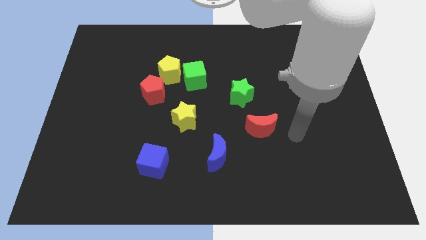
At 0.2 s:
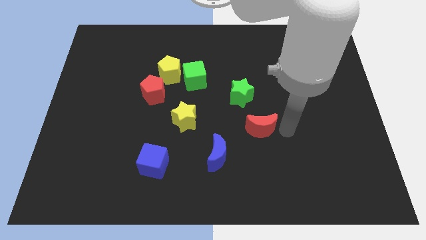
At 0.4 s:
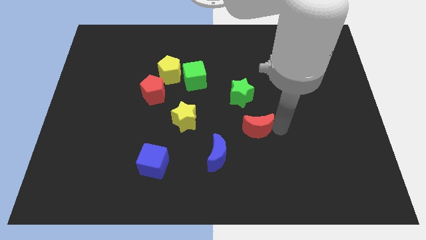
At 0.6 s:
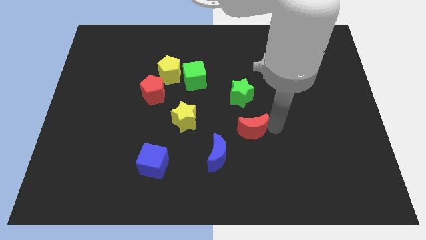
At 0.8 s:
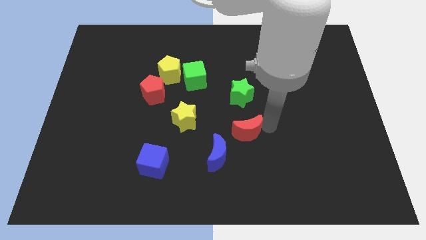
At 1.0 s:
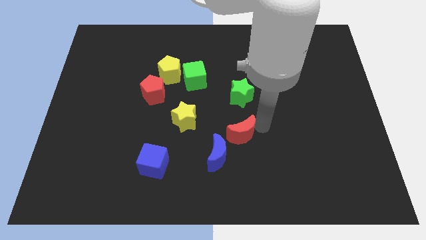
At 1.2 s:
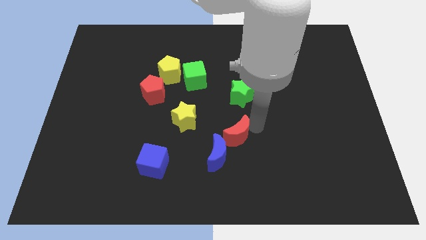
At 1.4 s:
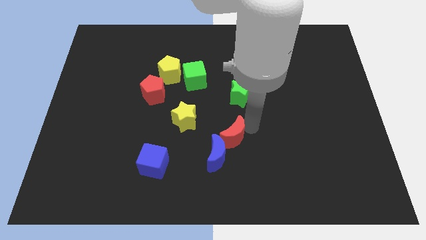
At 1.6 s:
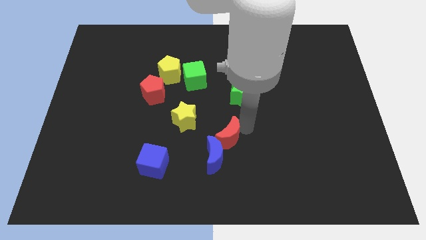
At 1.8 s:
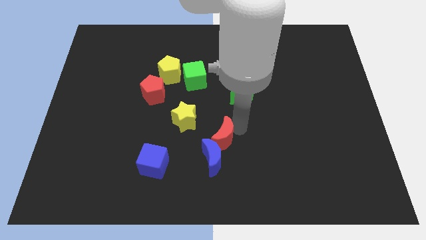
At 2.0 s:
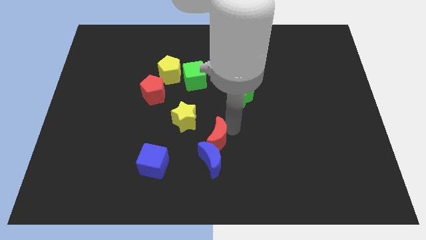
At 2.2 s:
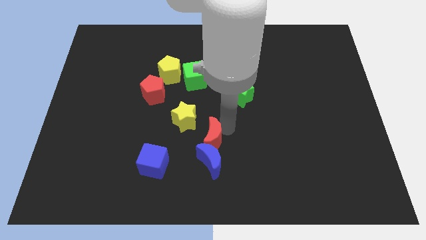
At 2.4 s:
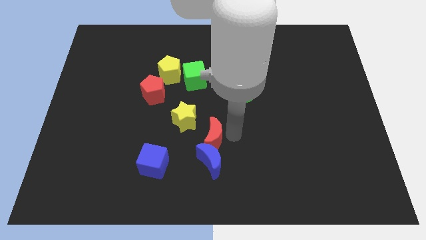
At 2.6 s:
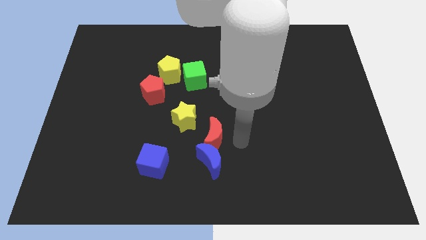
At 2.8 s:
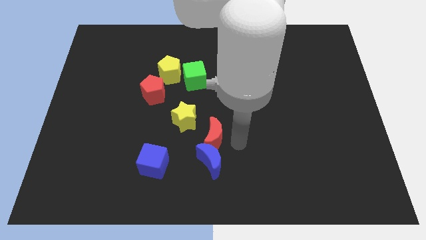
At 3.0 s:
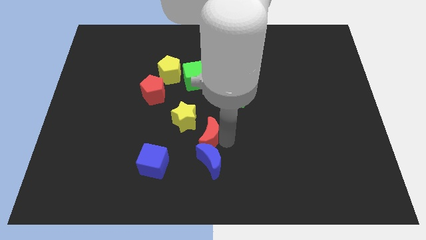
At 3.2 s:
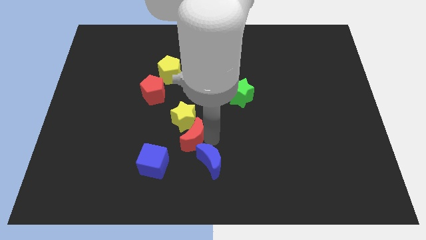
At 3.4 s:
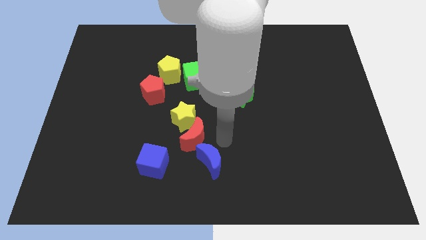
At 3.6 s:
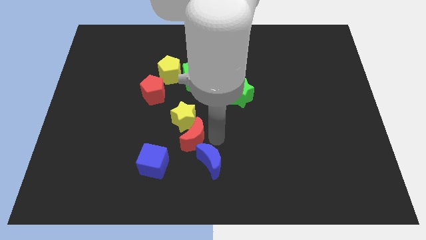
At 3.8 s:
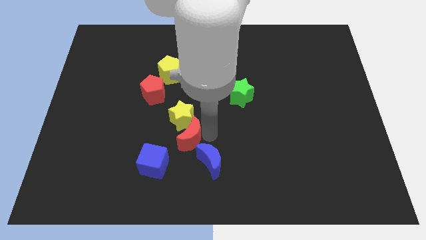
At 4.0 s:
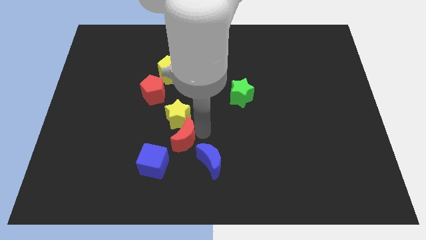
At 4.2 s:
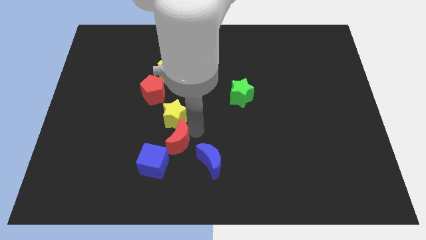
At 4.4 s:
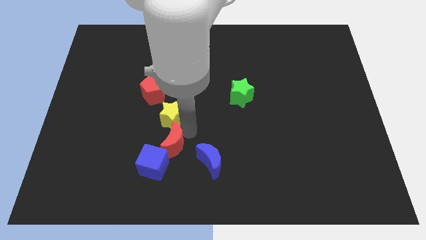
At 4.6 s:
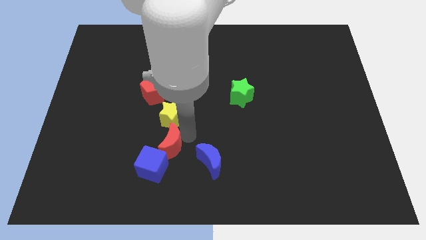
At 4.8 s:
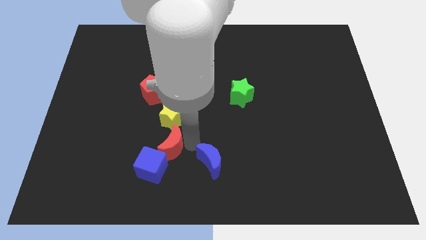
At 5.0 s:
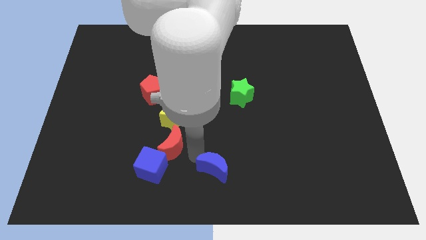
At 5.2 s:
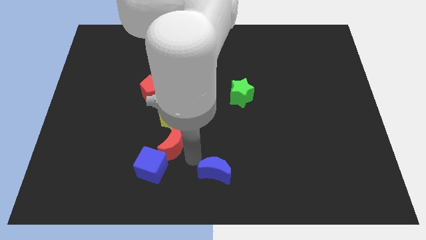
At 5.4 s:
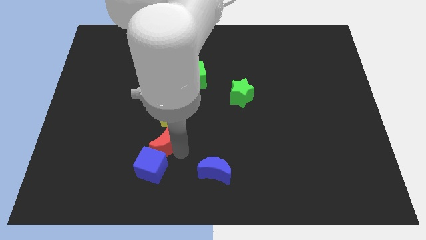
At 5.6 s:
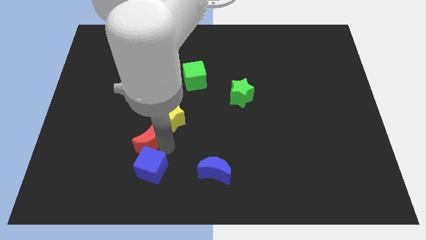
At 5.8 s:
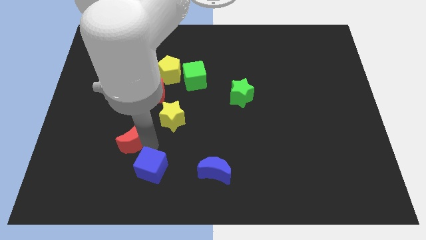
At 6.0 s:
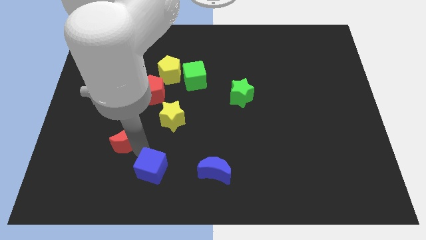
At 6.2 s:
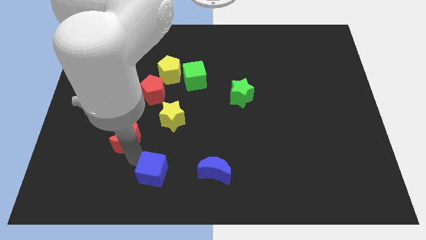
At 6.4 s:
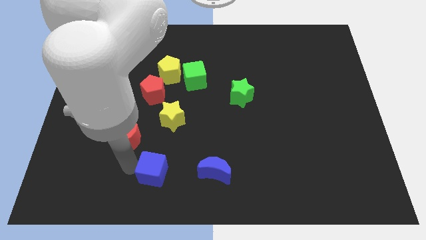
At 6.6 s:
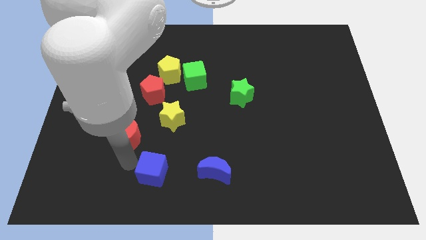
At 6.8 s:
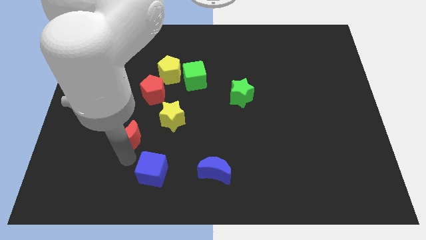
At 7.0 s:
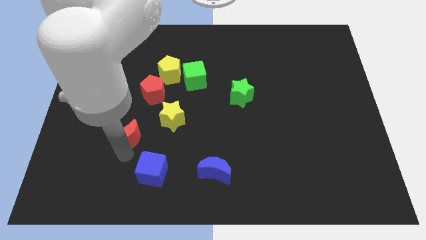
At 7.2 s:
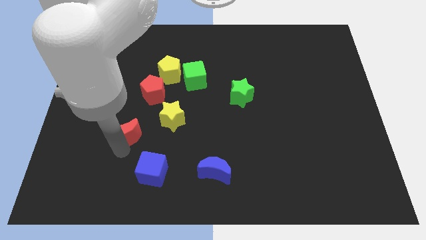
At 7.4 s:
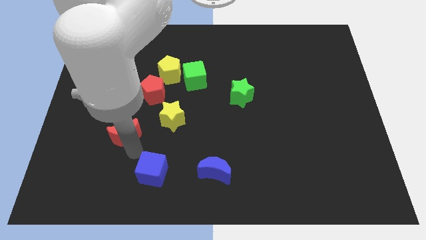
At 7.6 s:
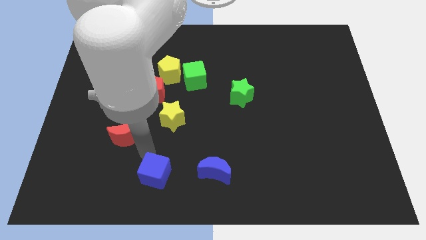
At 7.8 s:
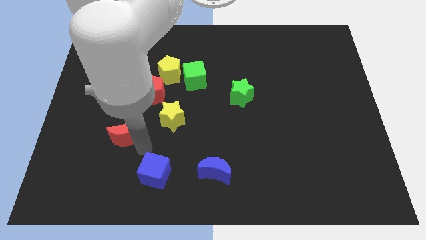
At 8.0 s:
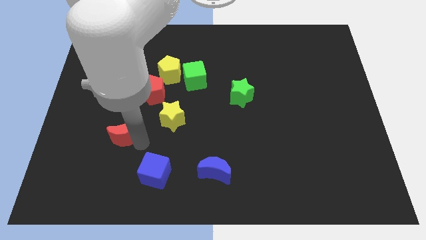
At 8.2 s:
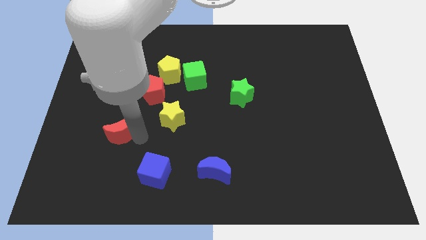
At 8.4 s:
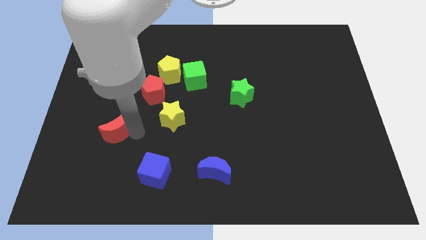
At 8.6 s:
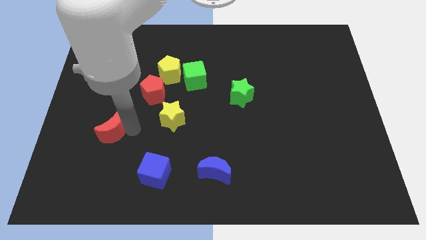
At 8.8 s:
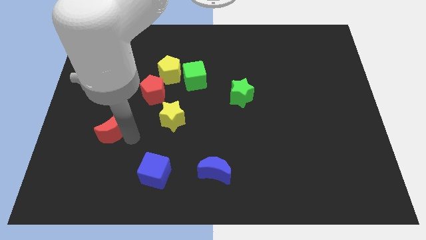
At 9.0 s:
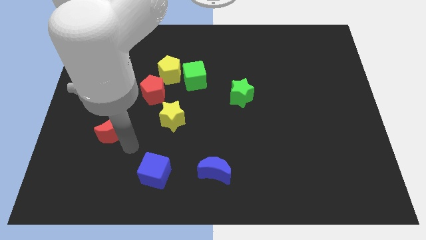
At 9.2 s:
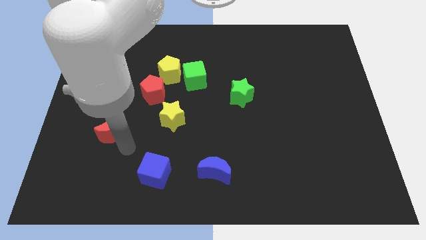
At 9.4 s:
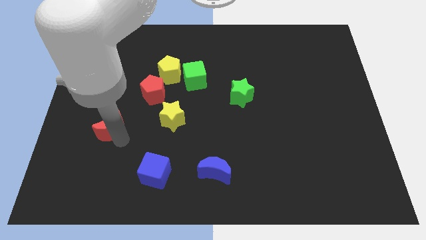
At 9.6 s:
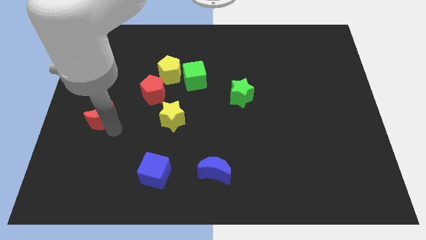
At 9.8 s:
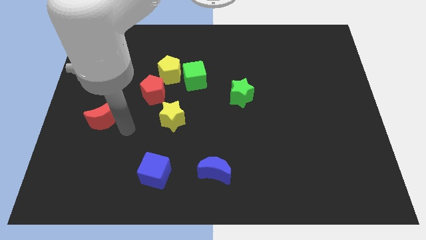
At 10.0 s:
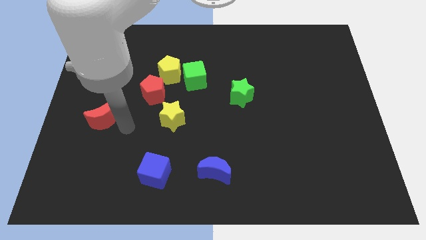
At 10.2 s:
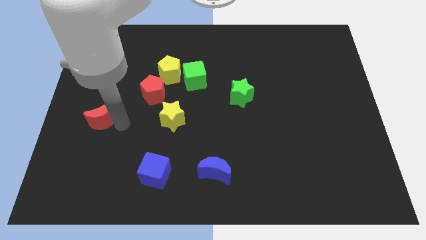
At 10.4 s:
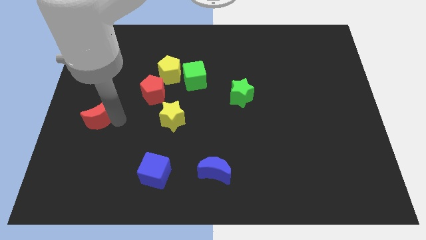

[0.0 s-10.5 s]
move the red moon to the left side

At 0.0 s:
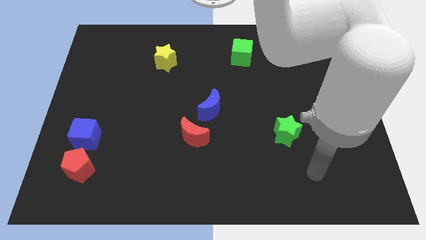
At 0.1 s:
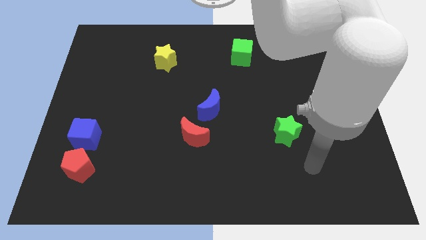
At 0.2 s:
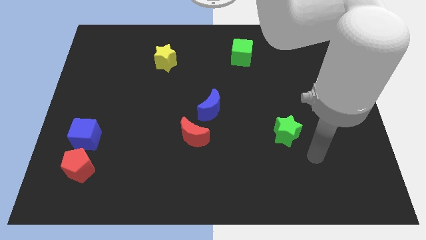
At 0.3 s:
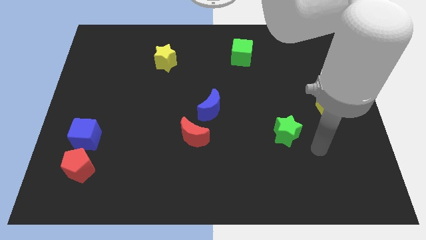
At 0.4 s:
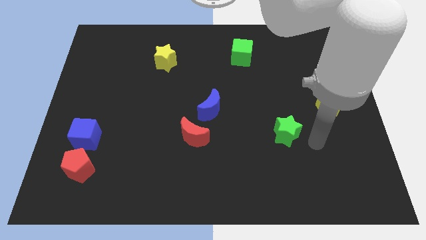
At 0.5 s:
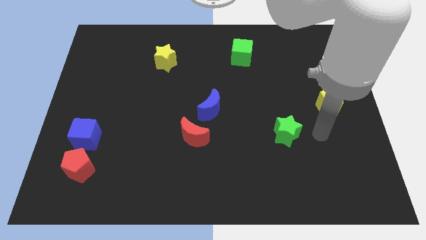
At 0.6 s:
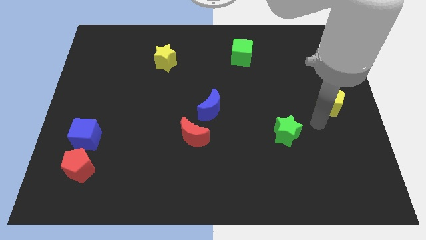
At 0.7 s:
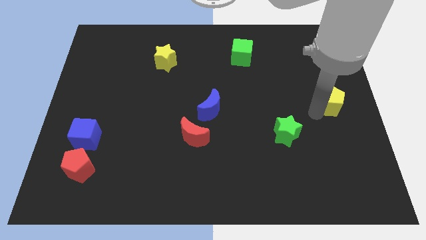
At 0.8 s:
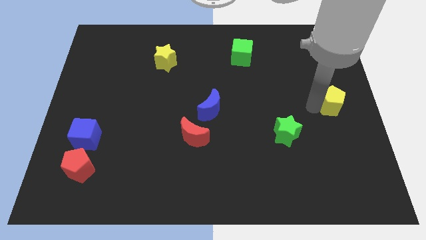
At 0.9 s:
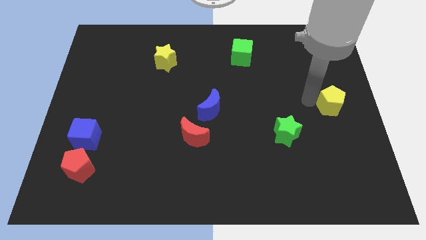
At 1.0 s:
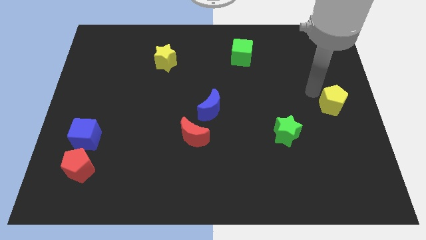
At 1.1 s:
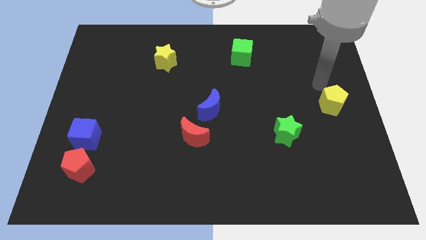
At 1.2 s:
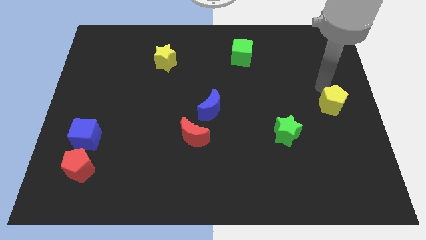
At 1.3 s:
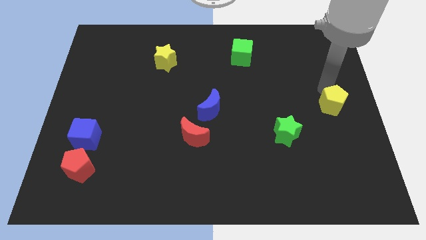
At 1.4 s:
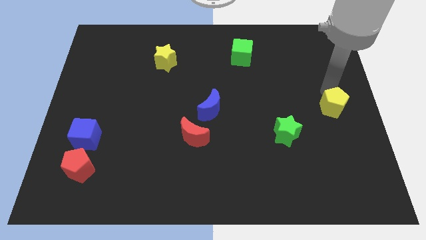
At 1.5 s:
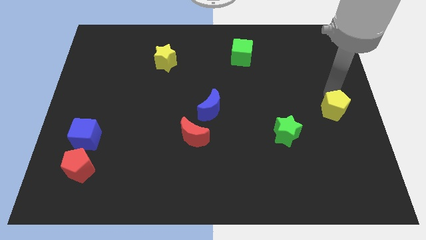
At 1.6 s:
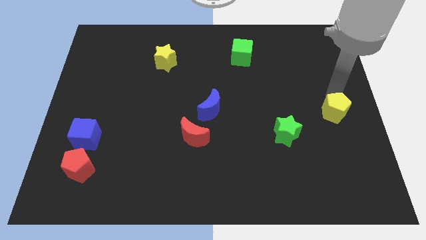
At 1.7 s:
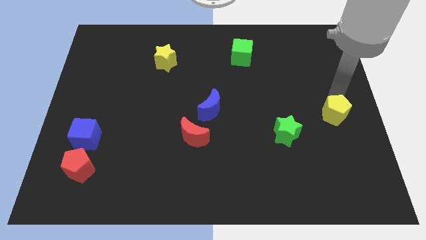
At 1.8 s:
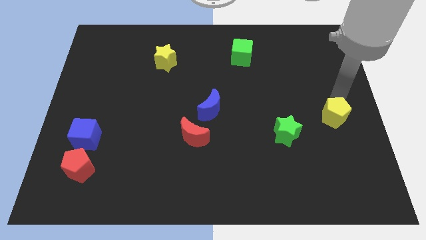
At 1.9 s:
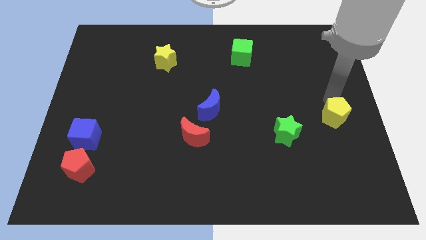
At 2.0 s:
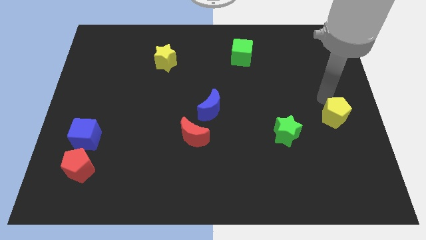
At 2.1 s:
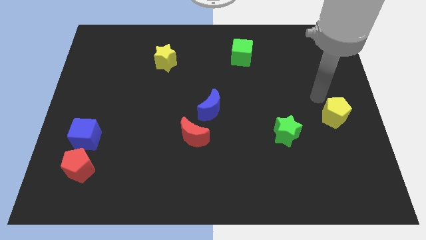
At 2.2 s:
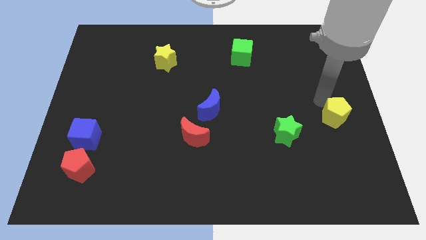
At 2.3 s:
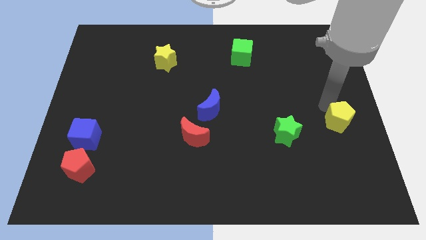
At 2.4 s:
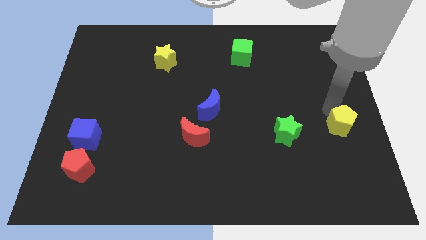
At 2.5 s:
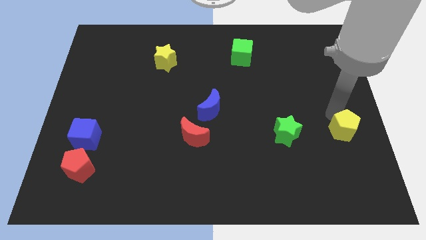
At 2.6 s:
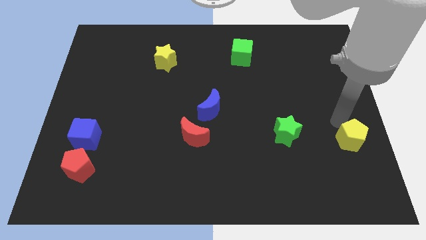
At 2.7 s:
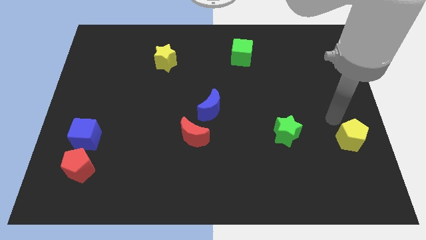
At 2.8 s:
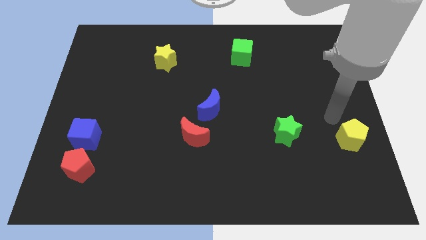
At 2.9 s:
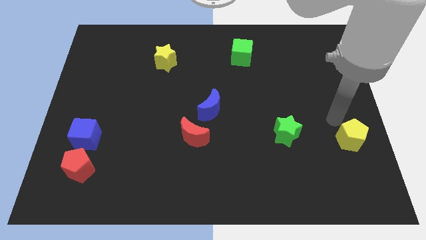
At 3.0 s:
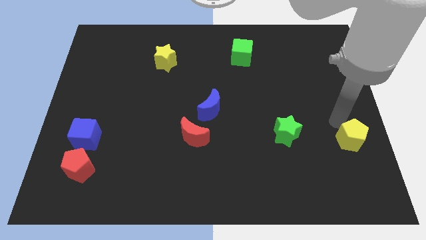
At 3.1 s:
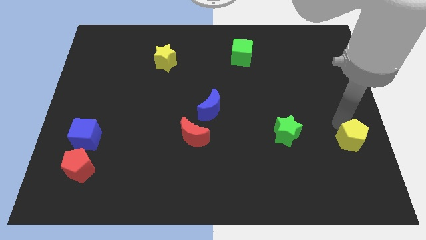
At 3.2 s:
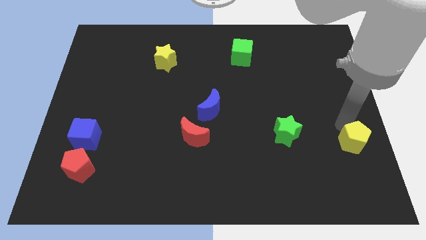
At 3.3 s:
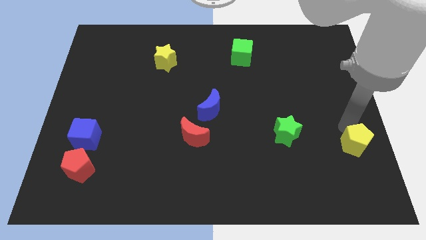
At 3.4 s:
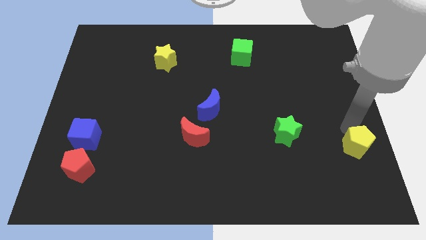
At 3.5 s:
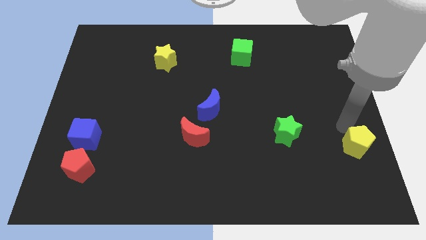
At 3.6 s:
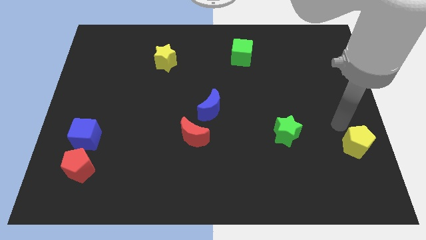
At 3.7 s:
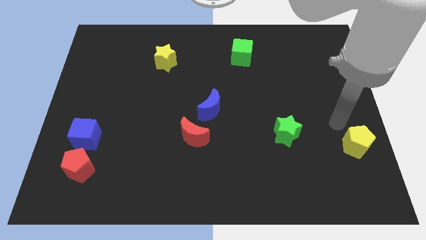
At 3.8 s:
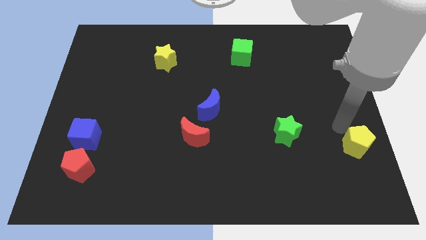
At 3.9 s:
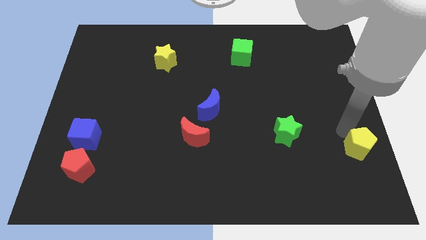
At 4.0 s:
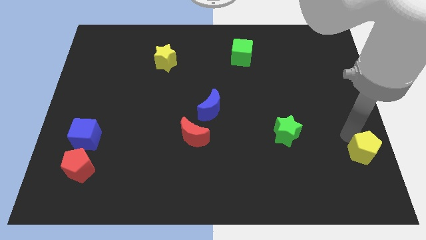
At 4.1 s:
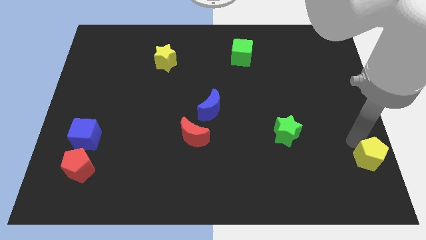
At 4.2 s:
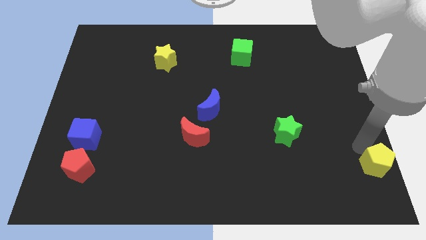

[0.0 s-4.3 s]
put the yellow pentagon to the bottom right of the board
